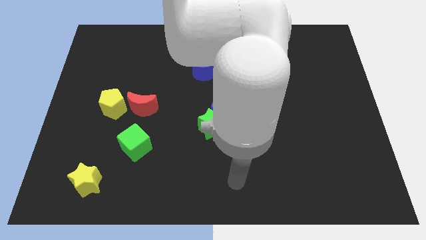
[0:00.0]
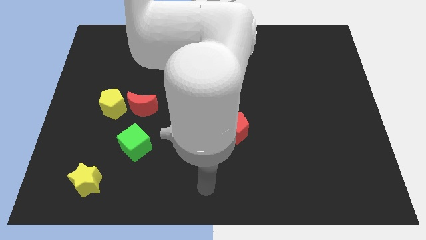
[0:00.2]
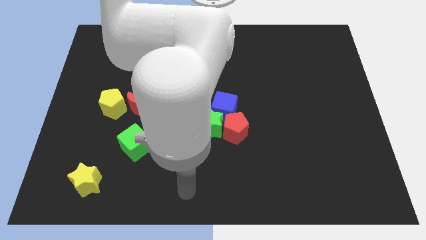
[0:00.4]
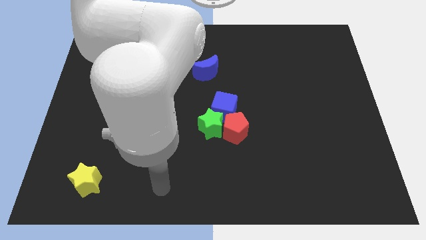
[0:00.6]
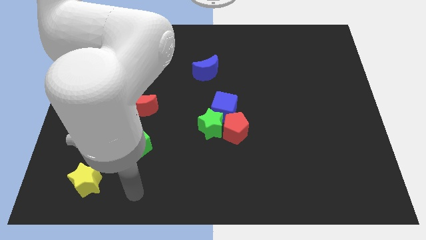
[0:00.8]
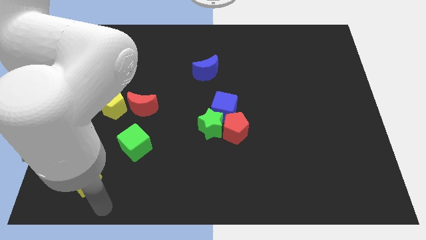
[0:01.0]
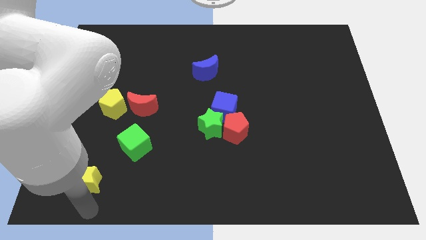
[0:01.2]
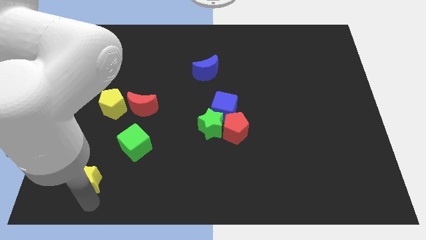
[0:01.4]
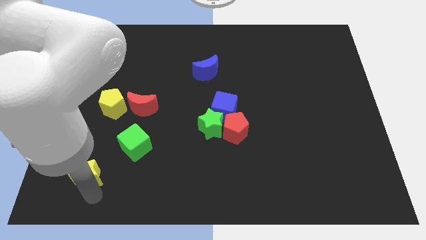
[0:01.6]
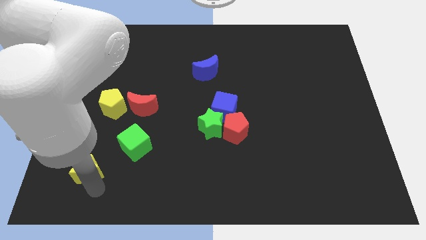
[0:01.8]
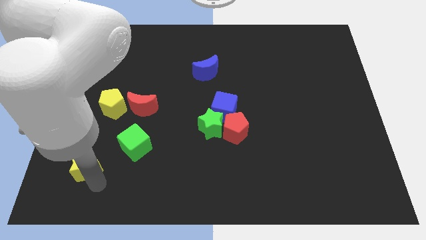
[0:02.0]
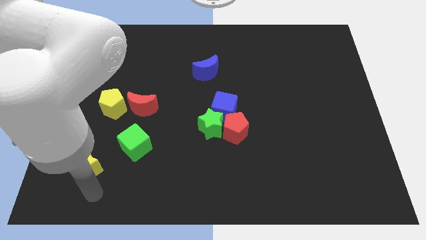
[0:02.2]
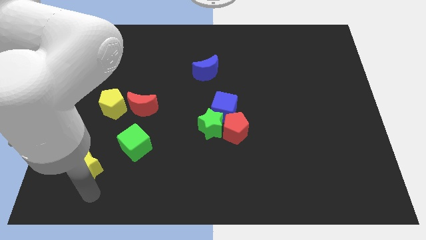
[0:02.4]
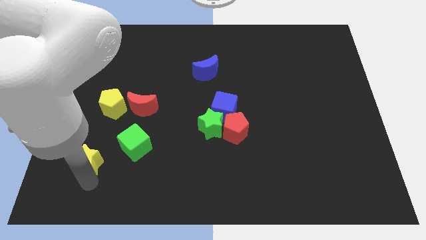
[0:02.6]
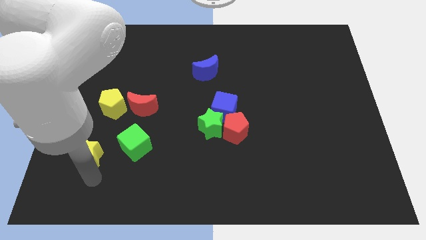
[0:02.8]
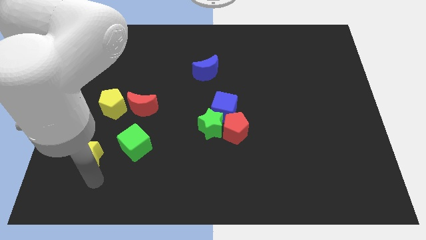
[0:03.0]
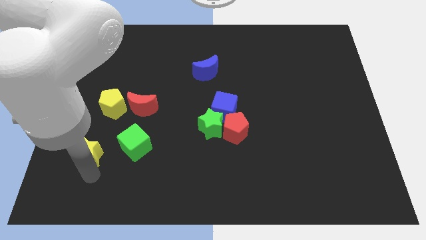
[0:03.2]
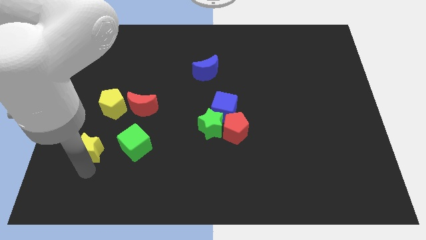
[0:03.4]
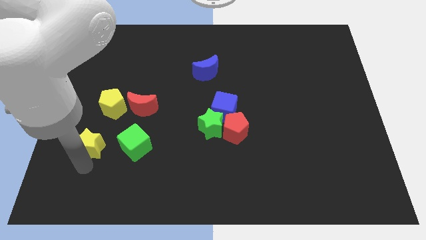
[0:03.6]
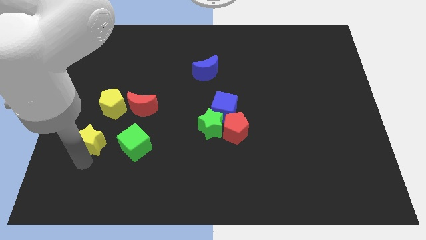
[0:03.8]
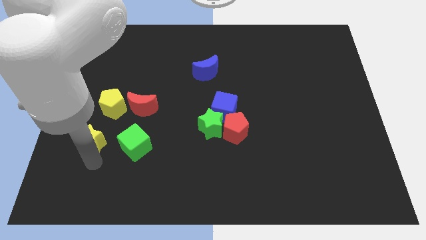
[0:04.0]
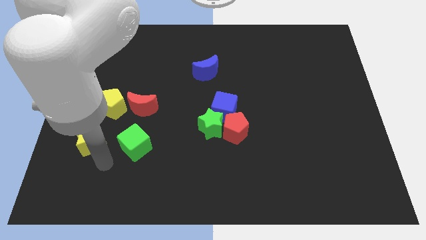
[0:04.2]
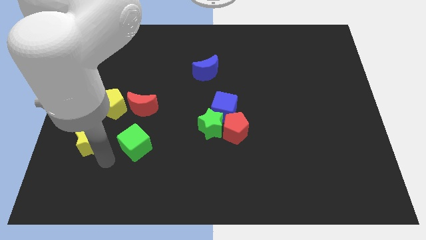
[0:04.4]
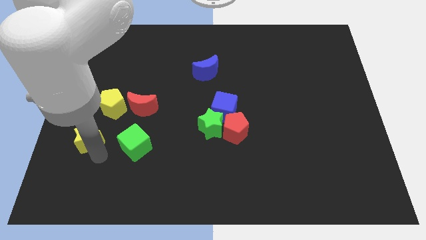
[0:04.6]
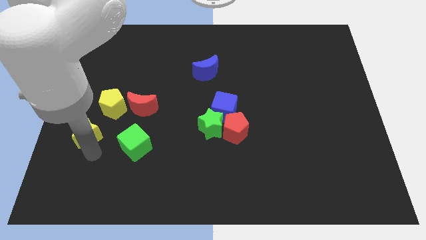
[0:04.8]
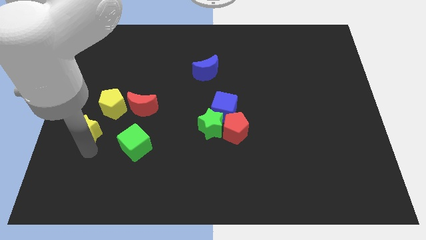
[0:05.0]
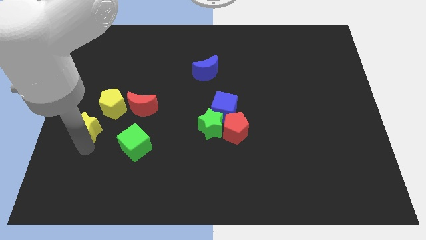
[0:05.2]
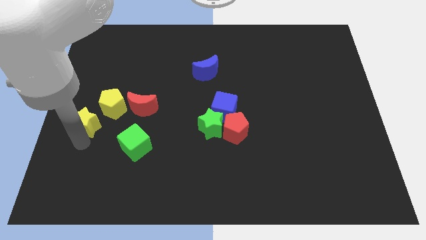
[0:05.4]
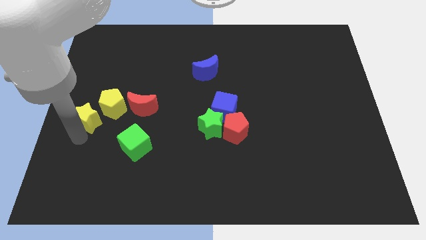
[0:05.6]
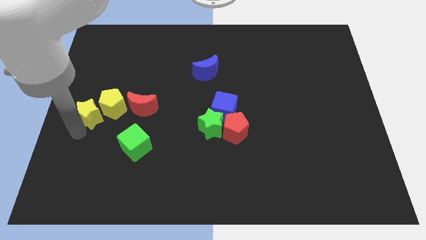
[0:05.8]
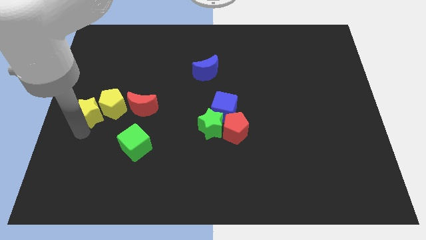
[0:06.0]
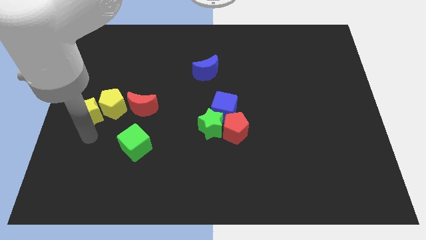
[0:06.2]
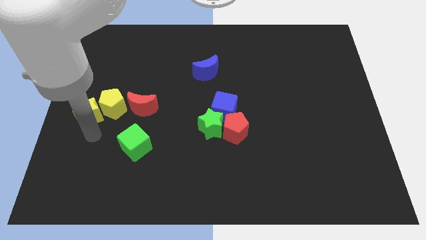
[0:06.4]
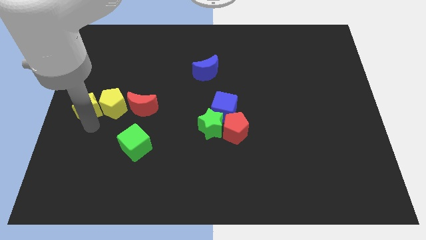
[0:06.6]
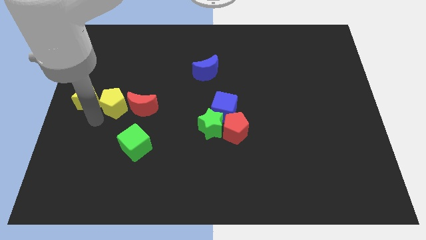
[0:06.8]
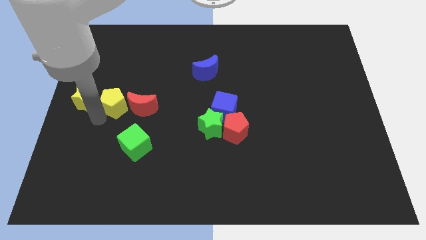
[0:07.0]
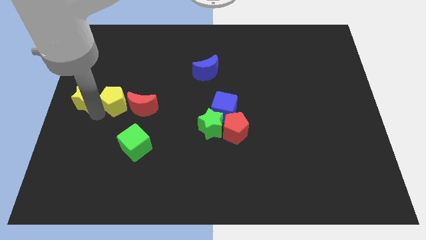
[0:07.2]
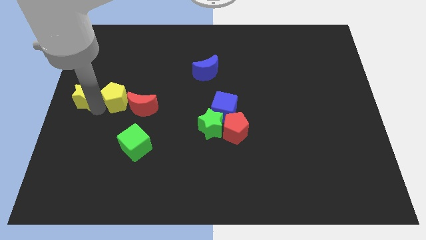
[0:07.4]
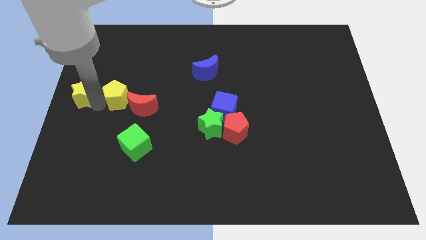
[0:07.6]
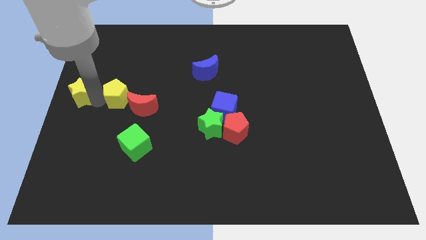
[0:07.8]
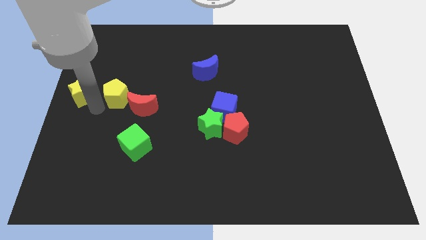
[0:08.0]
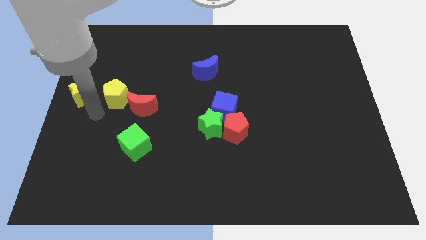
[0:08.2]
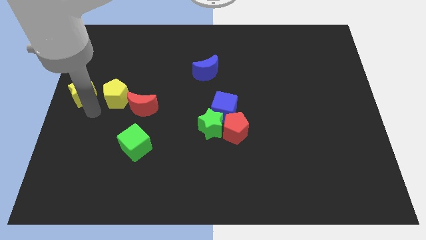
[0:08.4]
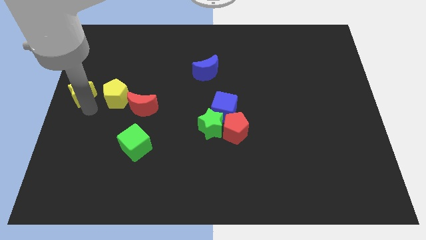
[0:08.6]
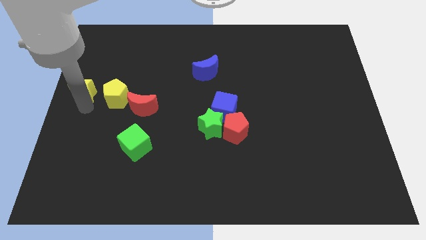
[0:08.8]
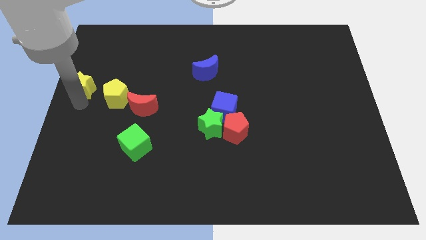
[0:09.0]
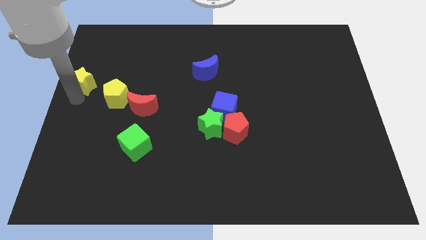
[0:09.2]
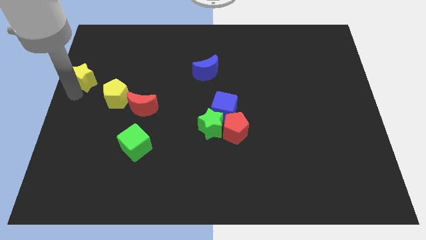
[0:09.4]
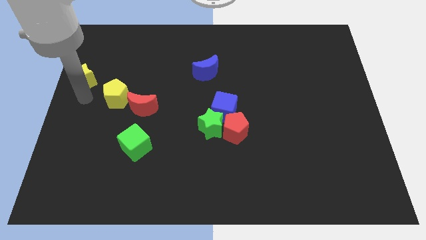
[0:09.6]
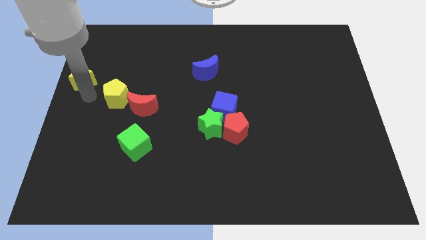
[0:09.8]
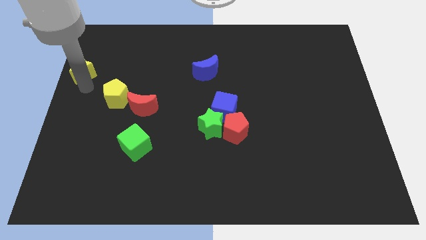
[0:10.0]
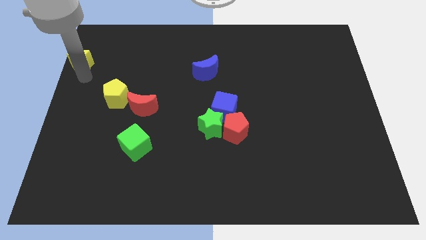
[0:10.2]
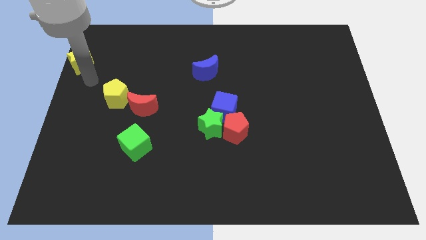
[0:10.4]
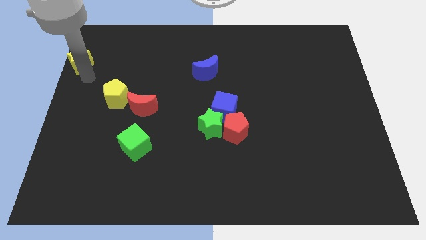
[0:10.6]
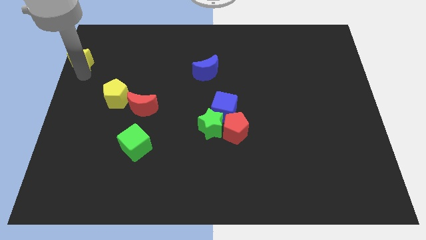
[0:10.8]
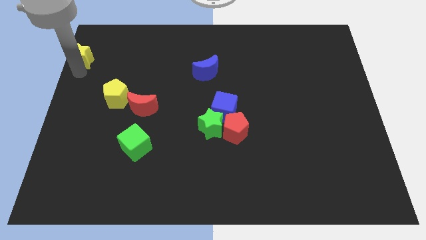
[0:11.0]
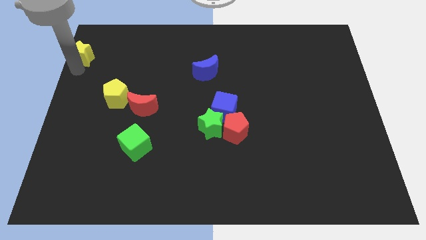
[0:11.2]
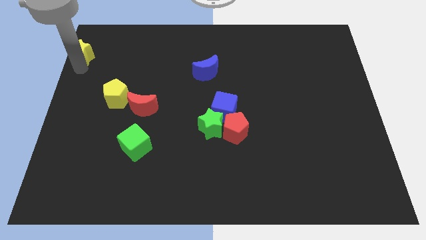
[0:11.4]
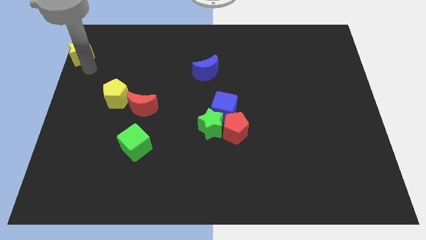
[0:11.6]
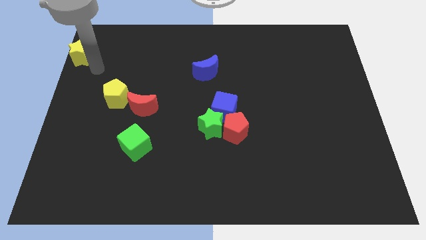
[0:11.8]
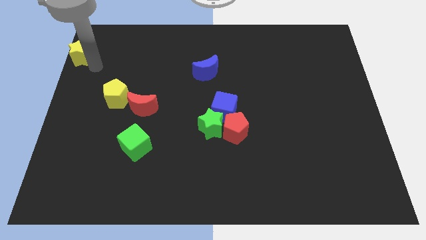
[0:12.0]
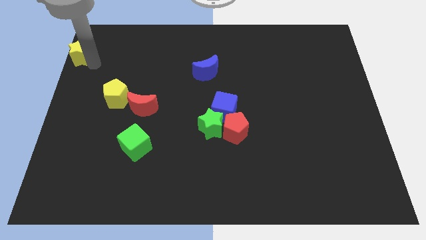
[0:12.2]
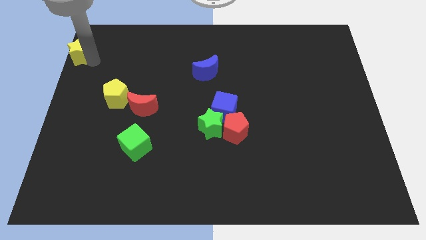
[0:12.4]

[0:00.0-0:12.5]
move the yellow star to the top left corner

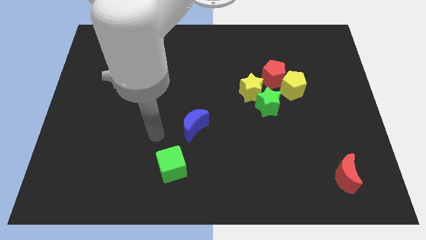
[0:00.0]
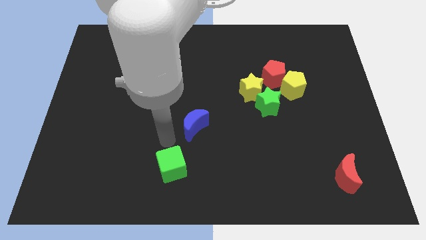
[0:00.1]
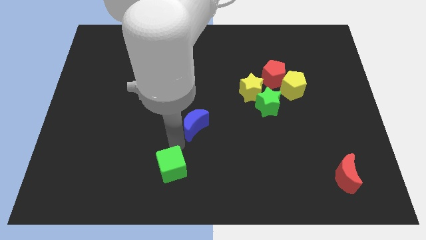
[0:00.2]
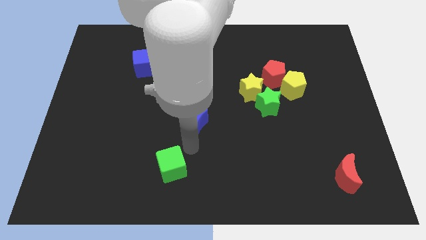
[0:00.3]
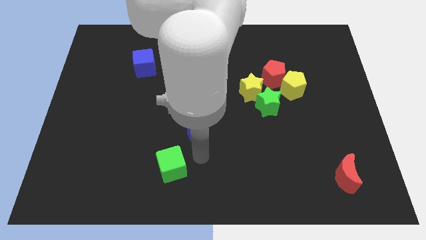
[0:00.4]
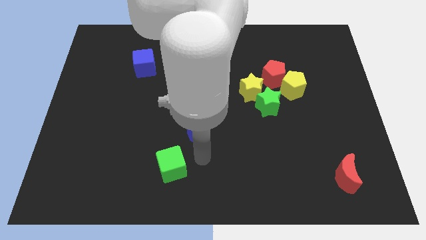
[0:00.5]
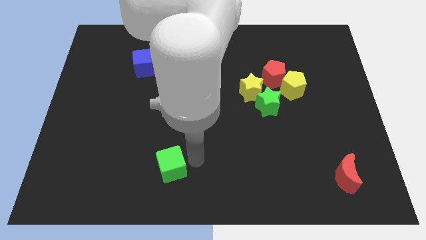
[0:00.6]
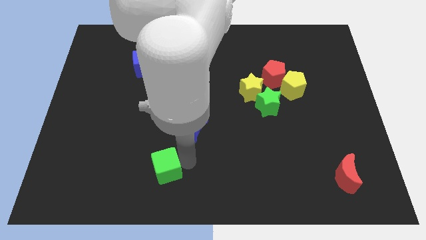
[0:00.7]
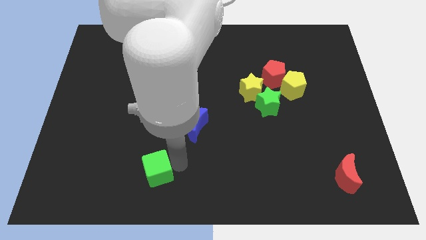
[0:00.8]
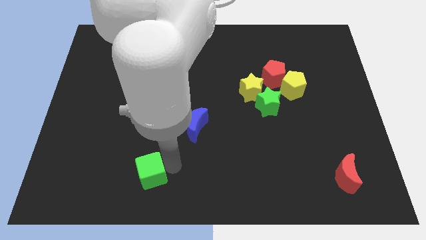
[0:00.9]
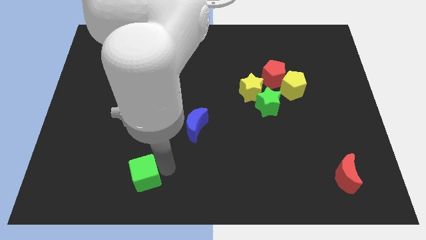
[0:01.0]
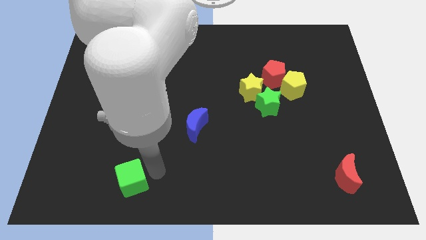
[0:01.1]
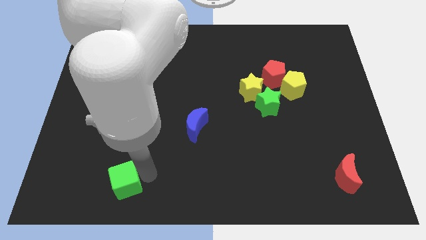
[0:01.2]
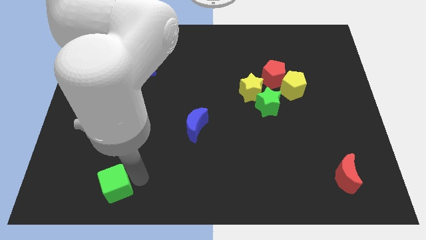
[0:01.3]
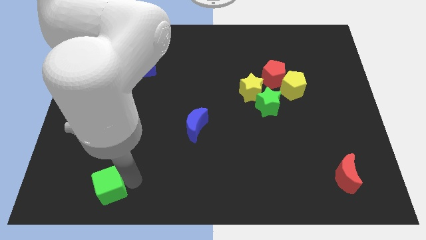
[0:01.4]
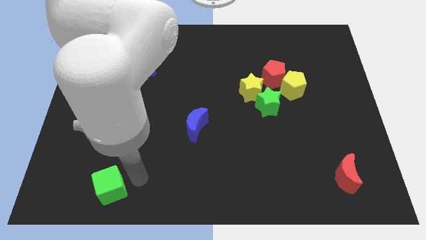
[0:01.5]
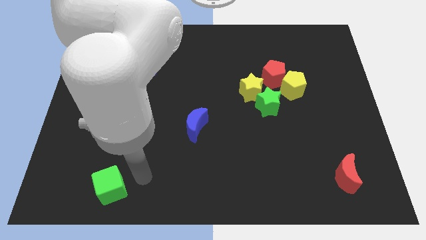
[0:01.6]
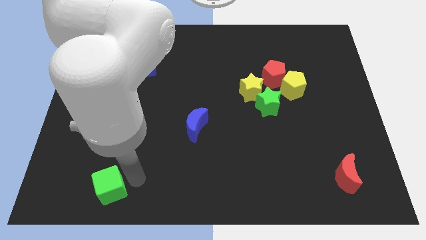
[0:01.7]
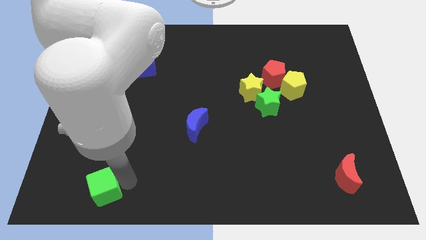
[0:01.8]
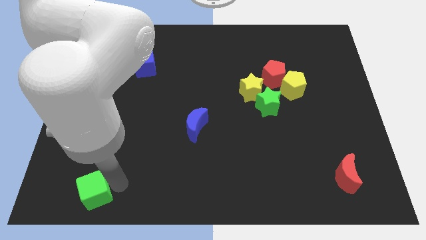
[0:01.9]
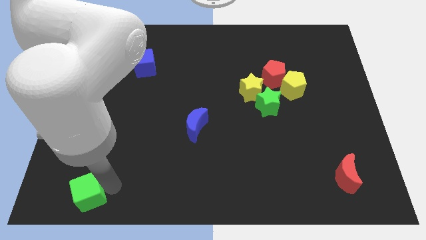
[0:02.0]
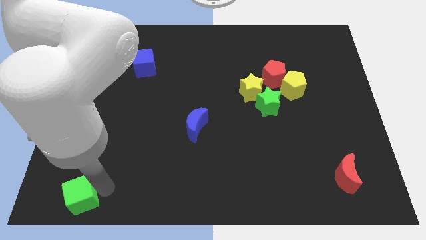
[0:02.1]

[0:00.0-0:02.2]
put the green cube to the bottom left corner
